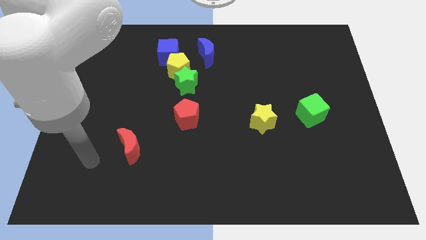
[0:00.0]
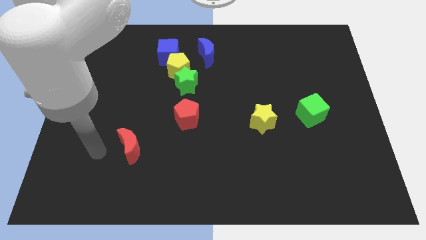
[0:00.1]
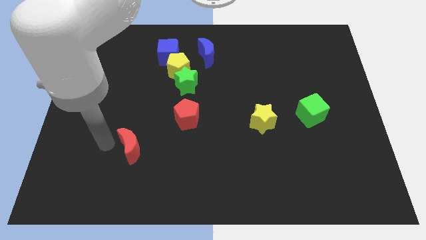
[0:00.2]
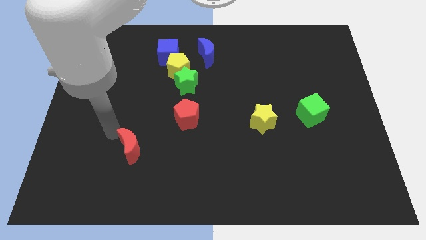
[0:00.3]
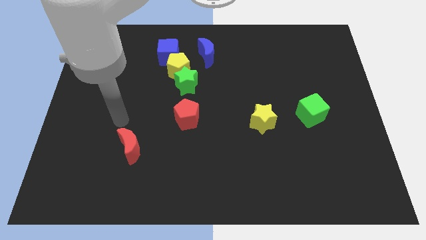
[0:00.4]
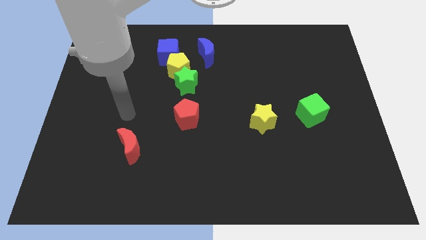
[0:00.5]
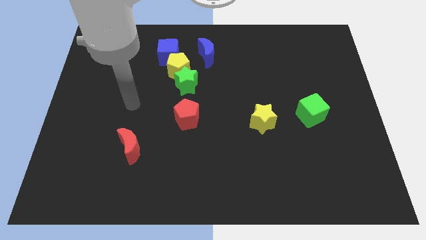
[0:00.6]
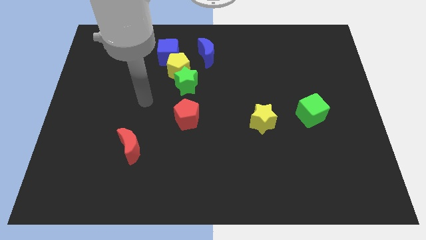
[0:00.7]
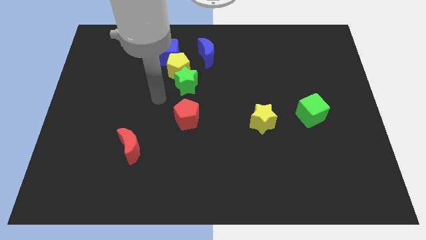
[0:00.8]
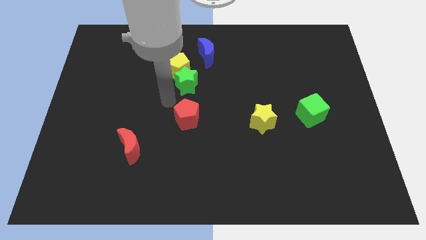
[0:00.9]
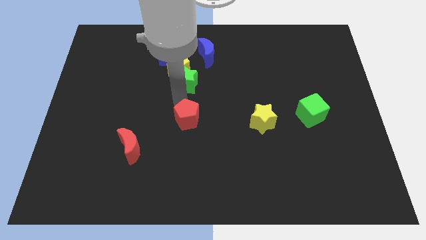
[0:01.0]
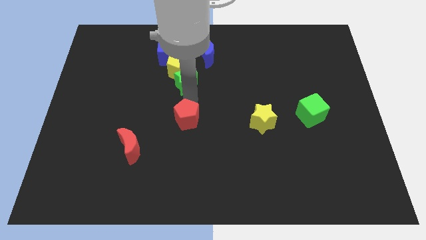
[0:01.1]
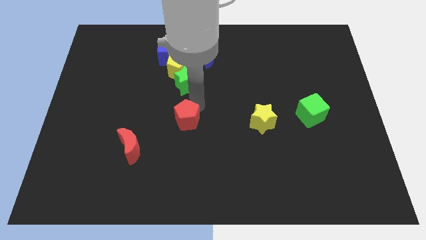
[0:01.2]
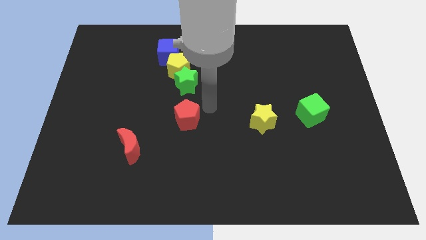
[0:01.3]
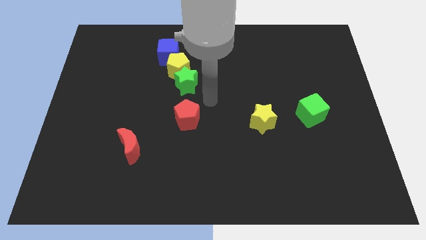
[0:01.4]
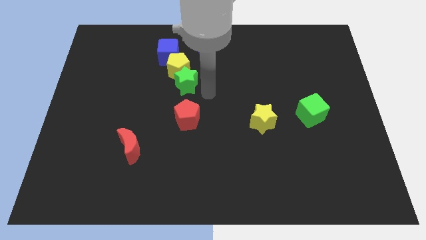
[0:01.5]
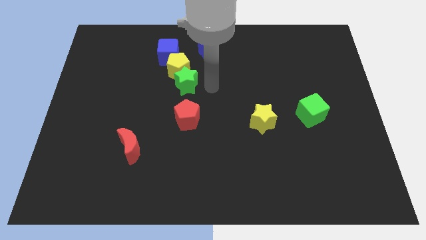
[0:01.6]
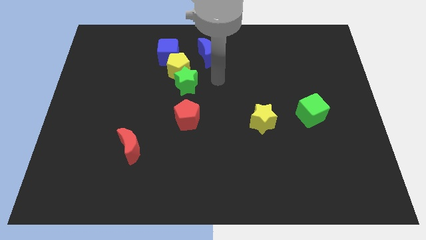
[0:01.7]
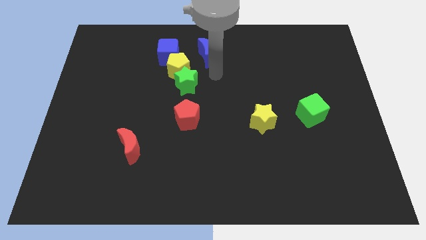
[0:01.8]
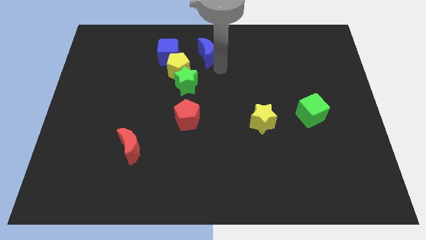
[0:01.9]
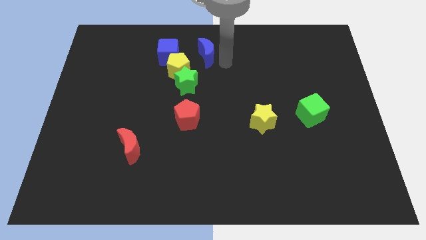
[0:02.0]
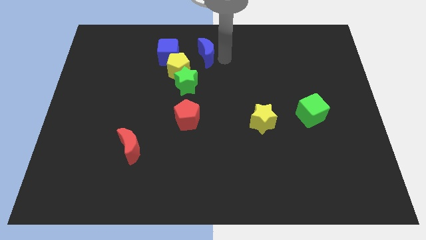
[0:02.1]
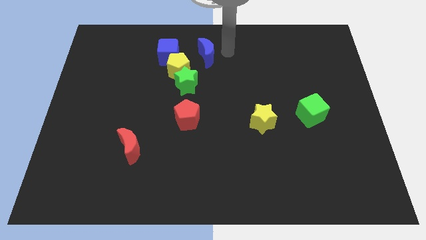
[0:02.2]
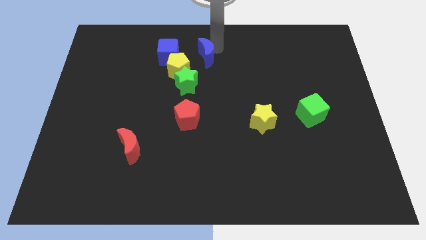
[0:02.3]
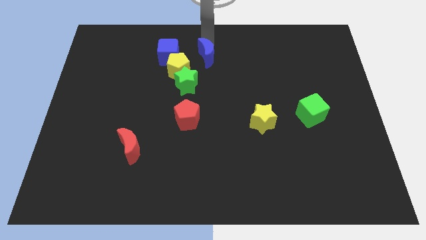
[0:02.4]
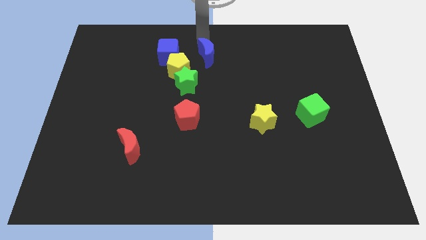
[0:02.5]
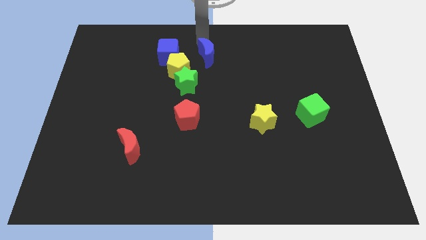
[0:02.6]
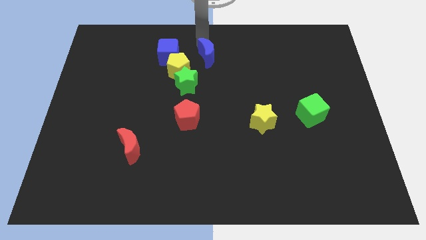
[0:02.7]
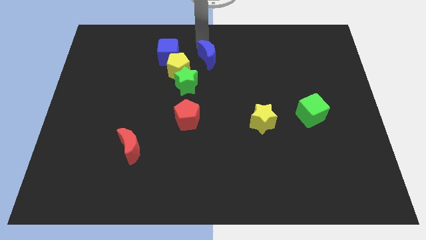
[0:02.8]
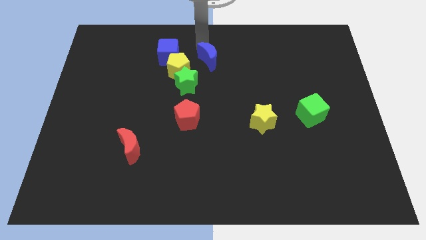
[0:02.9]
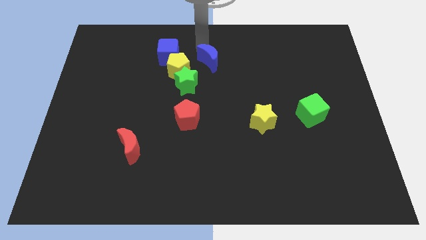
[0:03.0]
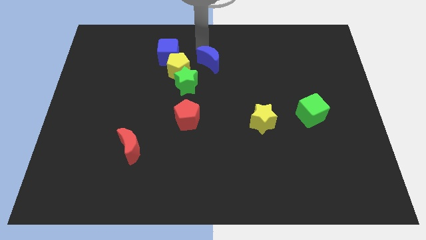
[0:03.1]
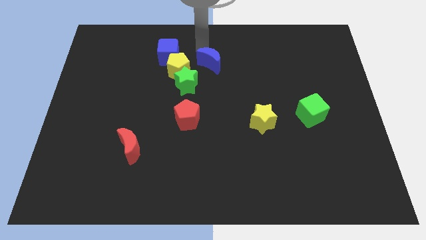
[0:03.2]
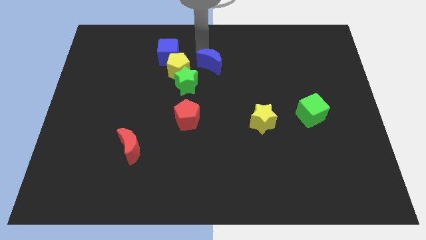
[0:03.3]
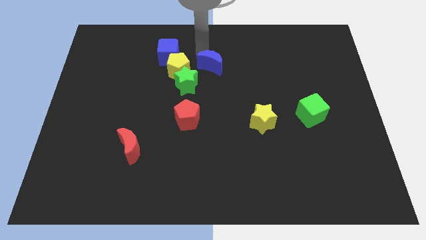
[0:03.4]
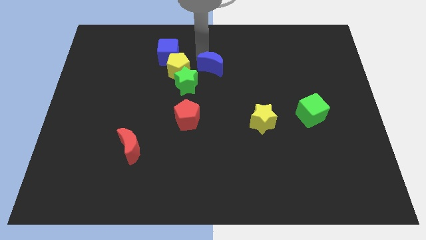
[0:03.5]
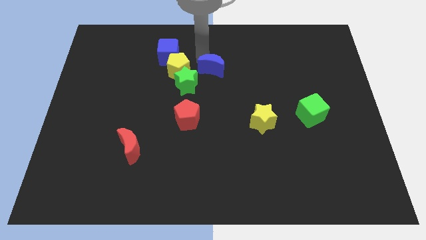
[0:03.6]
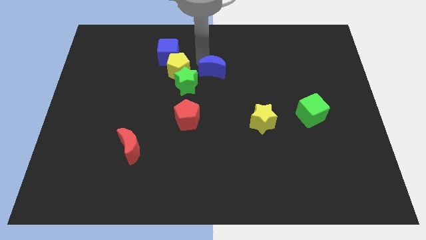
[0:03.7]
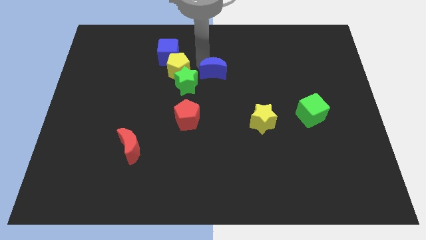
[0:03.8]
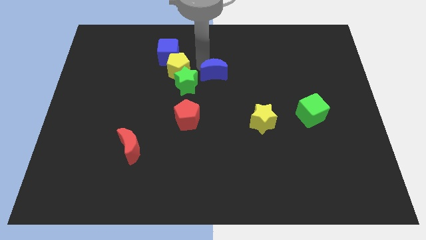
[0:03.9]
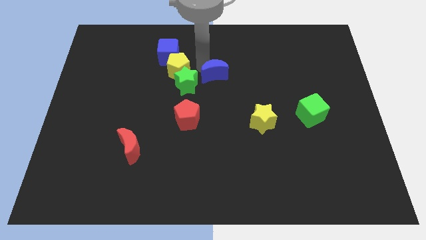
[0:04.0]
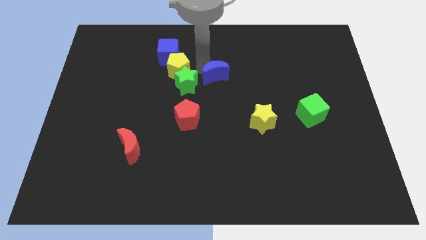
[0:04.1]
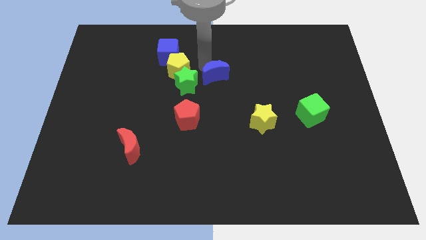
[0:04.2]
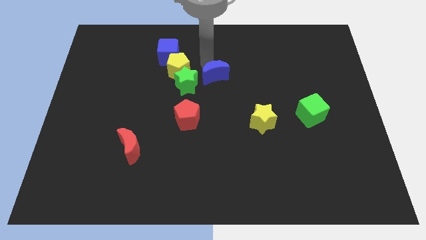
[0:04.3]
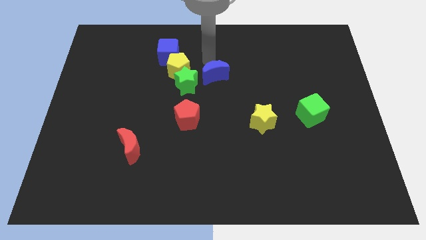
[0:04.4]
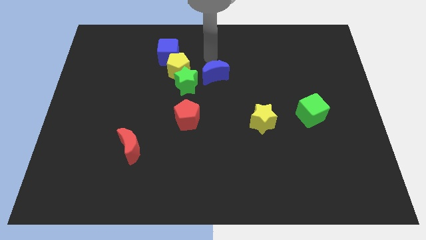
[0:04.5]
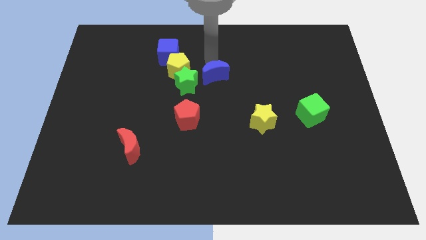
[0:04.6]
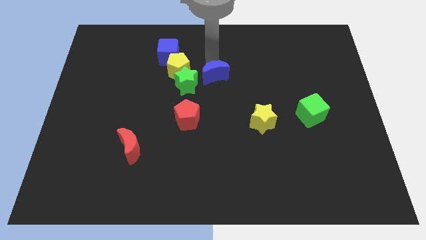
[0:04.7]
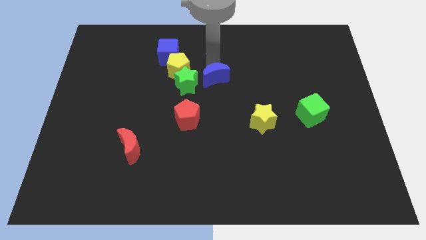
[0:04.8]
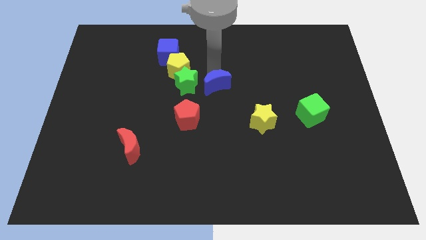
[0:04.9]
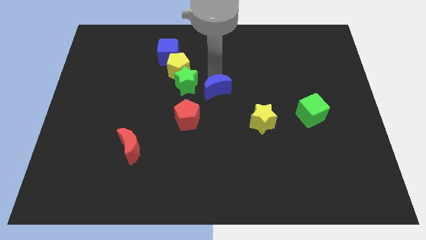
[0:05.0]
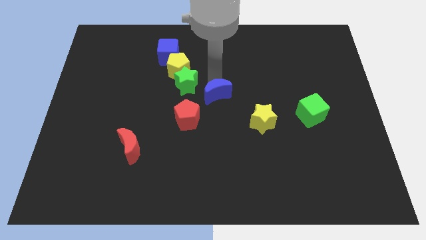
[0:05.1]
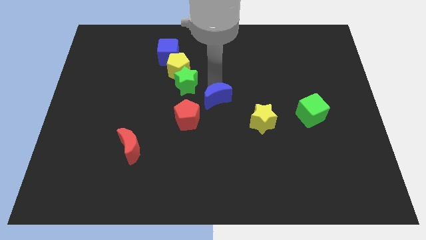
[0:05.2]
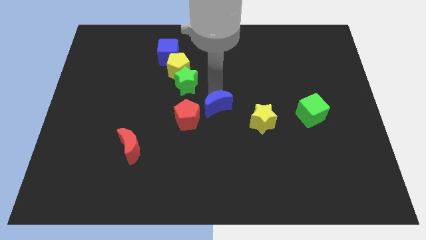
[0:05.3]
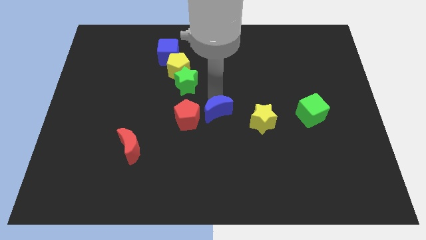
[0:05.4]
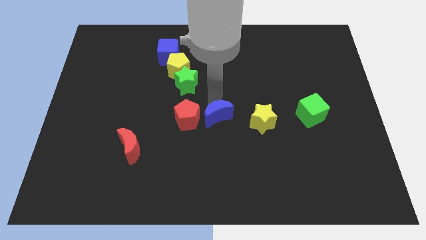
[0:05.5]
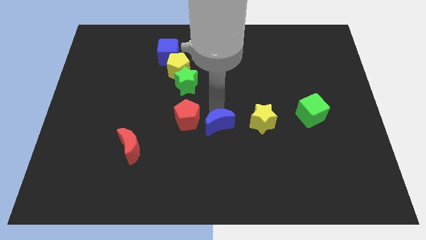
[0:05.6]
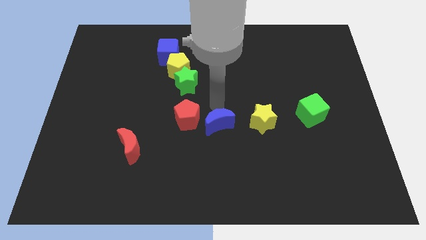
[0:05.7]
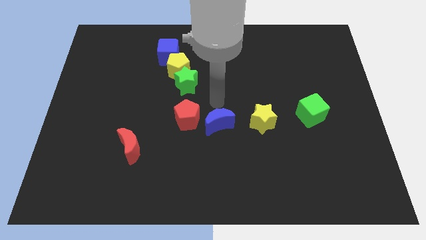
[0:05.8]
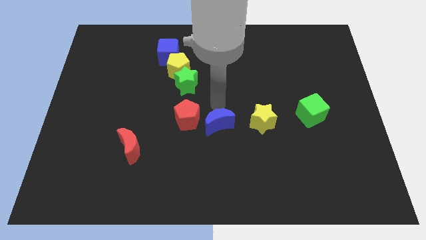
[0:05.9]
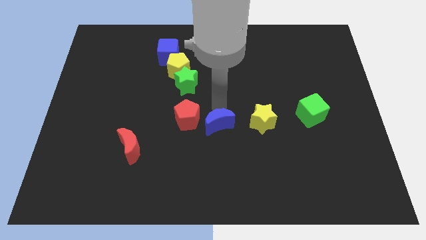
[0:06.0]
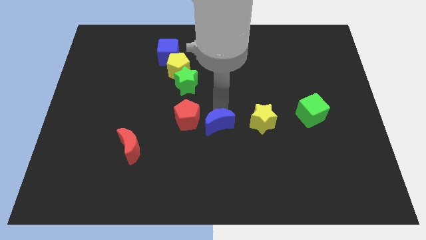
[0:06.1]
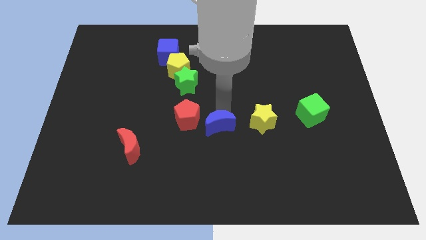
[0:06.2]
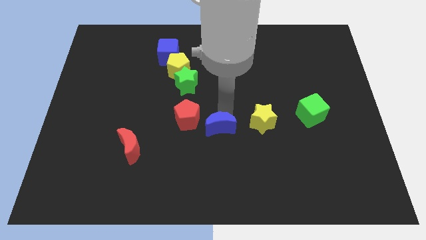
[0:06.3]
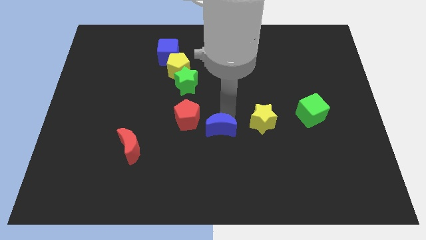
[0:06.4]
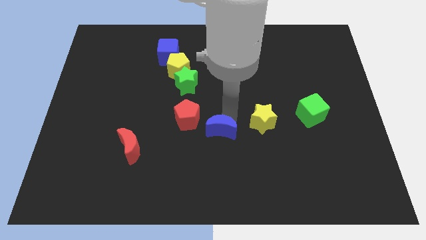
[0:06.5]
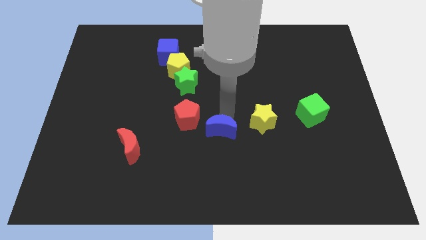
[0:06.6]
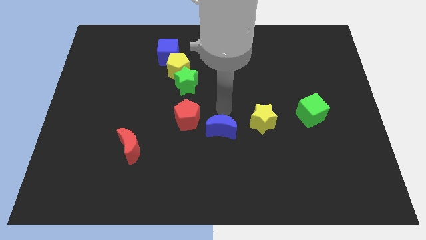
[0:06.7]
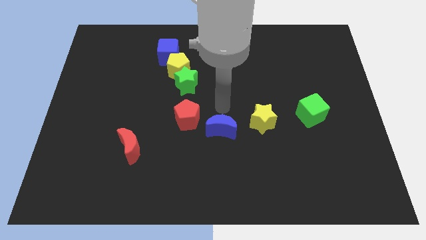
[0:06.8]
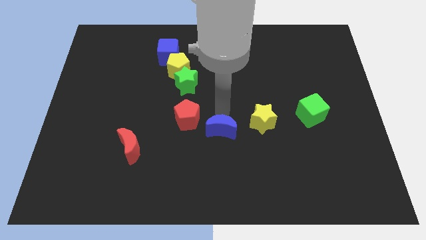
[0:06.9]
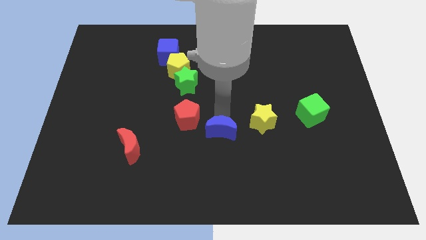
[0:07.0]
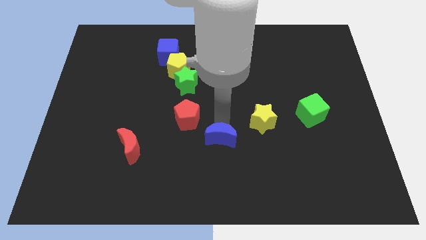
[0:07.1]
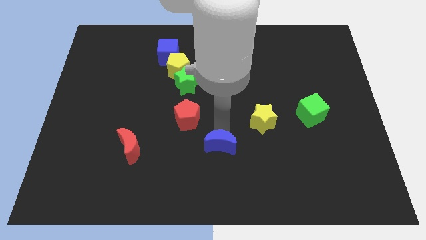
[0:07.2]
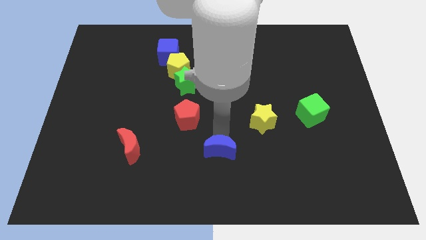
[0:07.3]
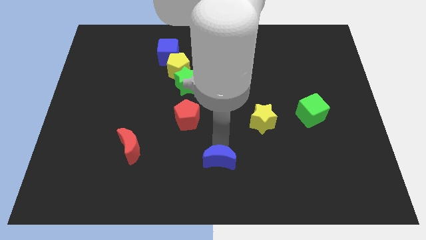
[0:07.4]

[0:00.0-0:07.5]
move the blue moon to the bottom side

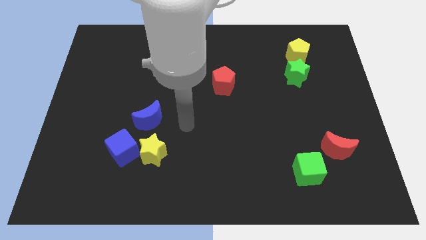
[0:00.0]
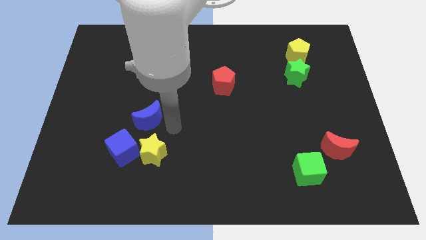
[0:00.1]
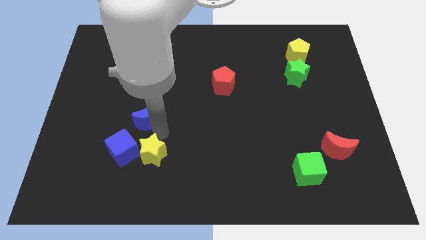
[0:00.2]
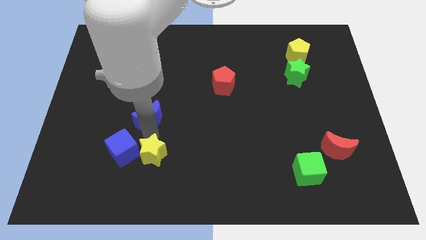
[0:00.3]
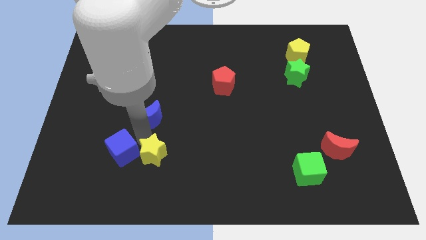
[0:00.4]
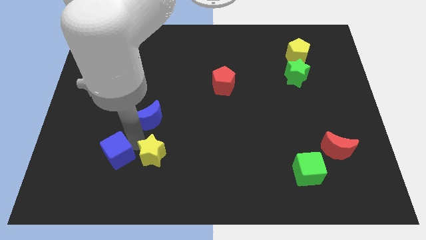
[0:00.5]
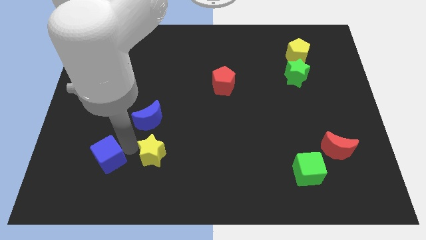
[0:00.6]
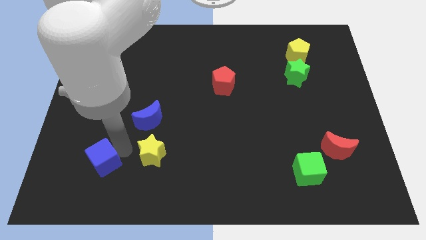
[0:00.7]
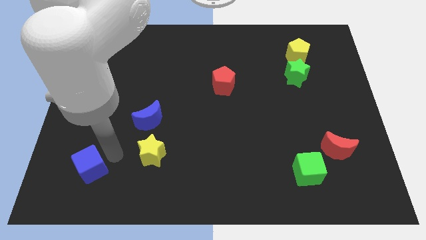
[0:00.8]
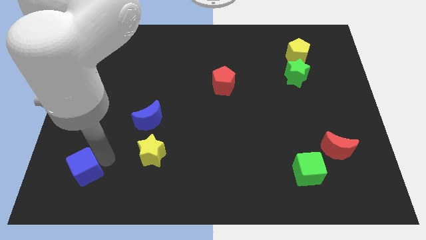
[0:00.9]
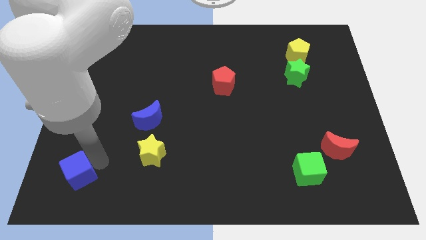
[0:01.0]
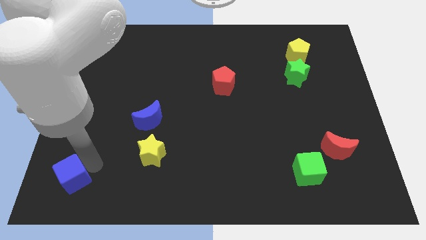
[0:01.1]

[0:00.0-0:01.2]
push the blue cube to the bottom left of the board
